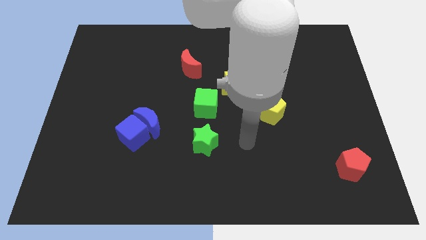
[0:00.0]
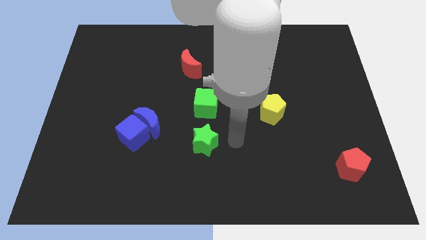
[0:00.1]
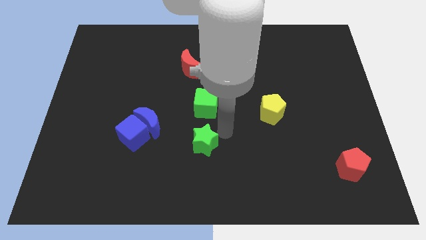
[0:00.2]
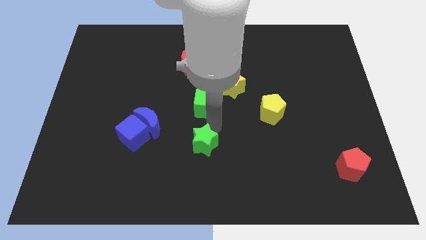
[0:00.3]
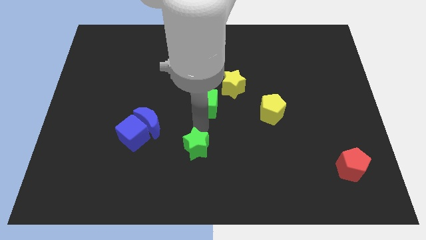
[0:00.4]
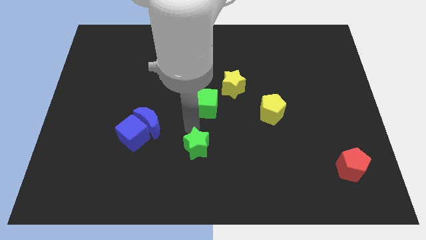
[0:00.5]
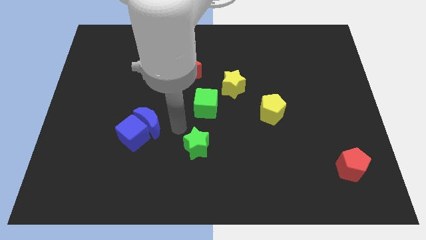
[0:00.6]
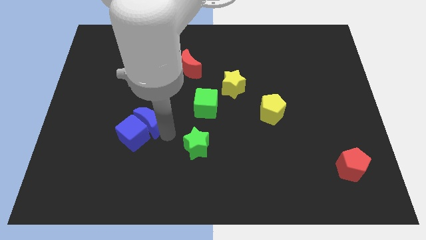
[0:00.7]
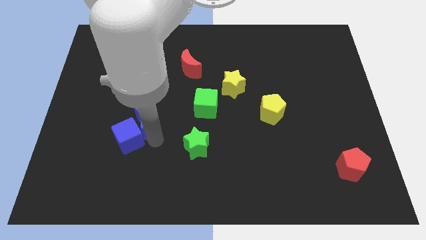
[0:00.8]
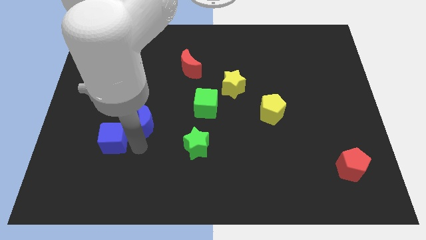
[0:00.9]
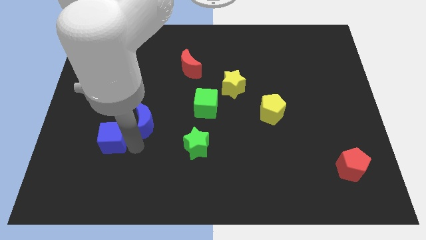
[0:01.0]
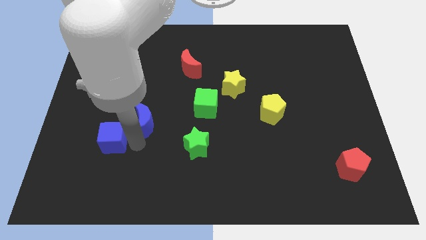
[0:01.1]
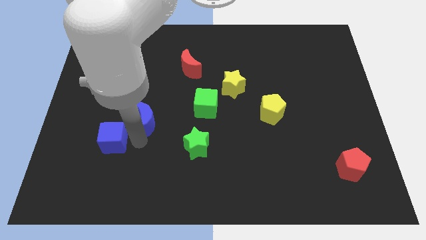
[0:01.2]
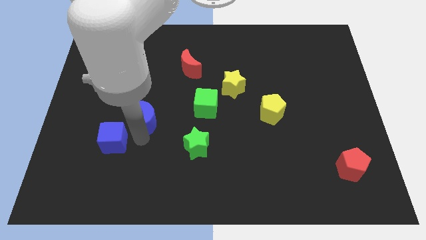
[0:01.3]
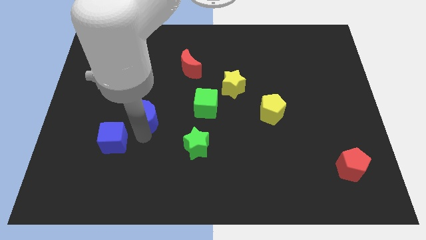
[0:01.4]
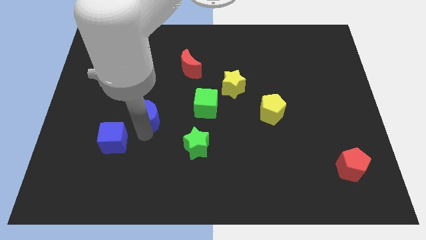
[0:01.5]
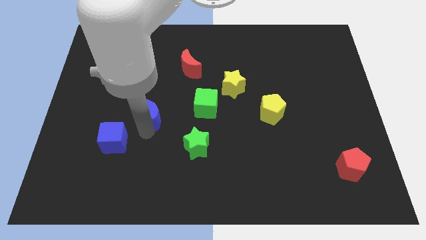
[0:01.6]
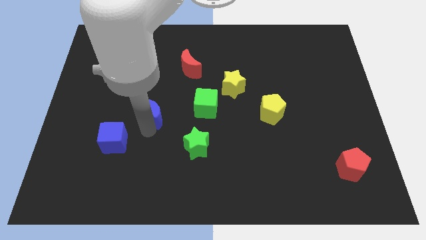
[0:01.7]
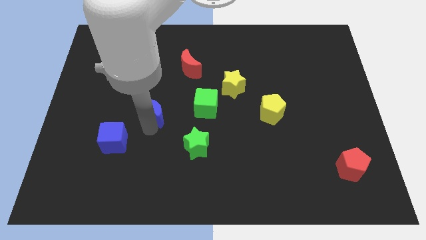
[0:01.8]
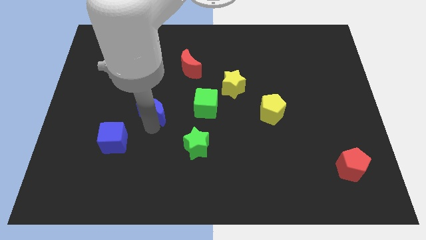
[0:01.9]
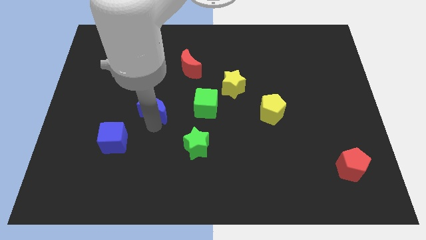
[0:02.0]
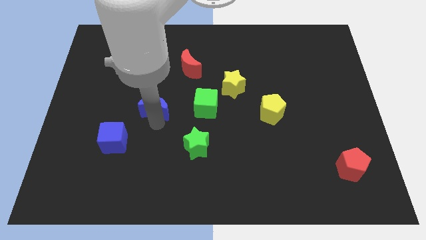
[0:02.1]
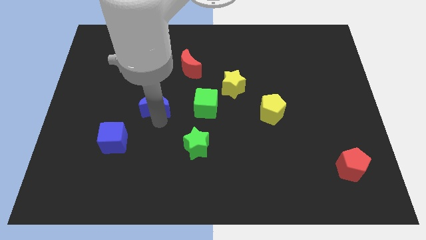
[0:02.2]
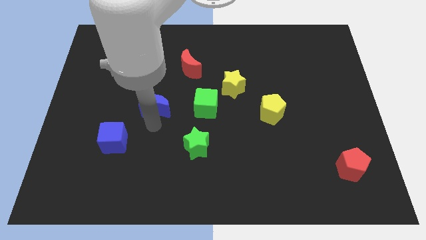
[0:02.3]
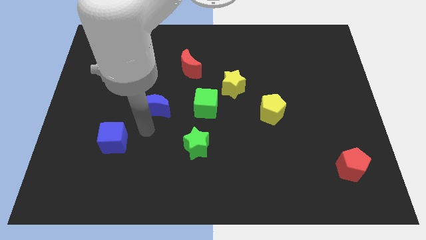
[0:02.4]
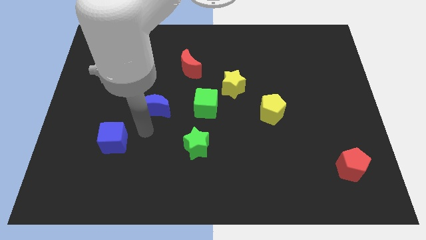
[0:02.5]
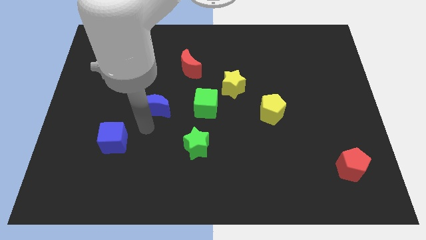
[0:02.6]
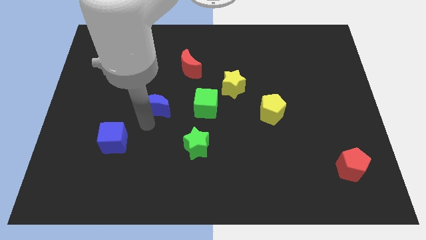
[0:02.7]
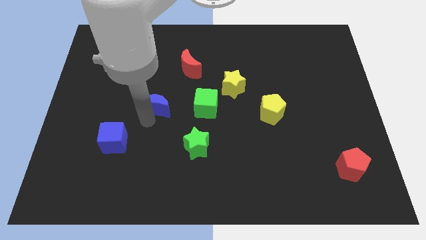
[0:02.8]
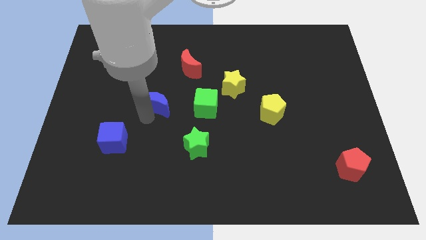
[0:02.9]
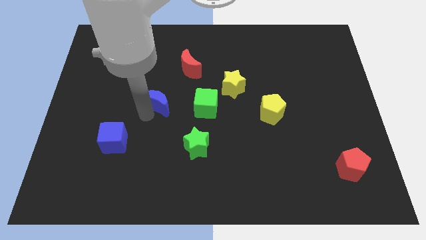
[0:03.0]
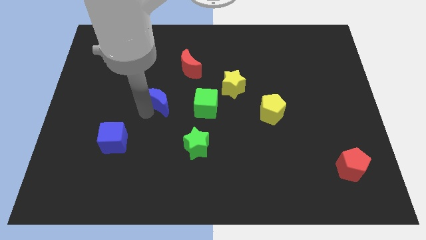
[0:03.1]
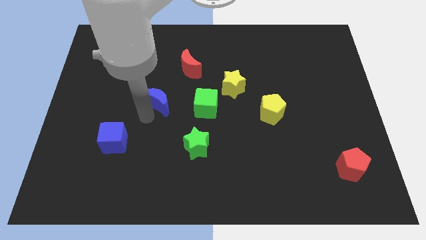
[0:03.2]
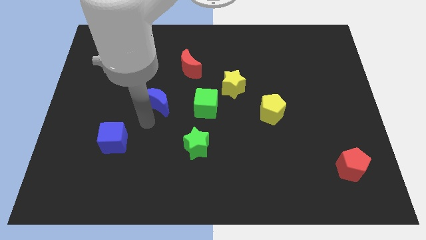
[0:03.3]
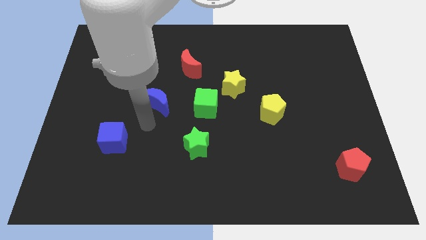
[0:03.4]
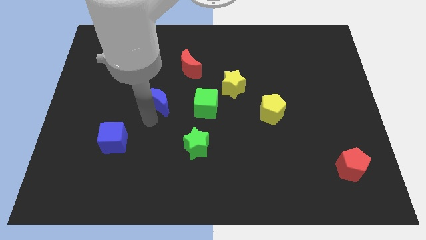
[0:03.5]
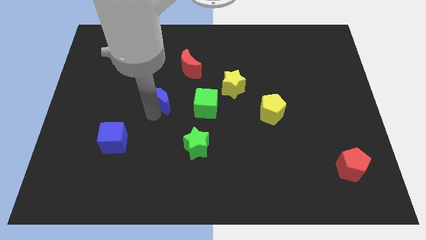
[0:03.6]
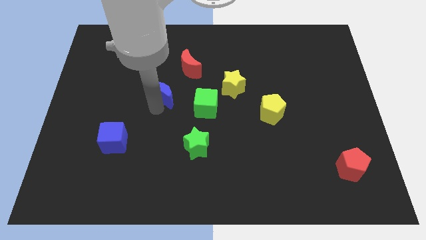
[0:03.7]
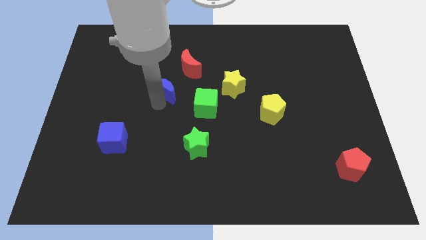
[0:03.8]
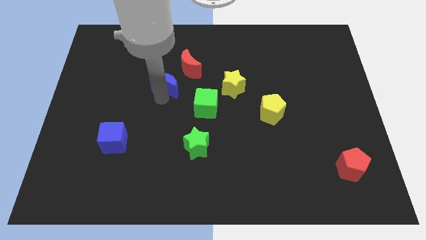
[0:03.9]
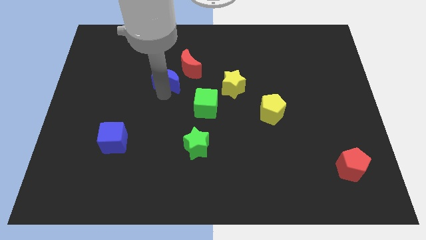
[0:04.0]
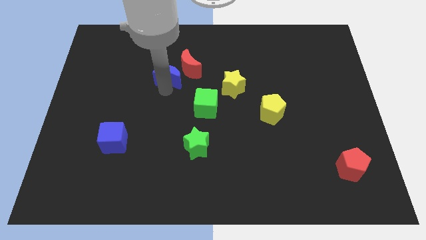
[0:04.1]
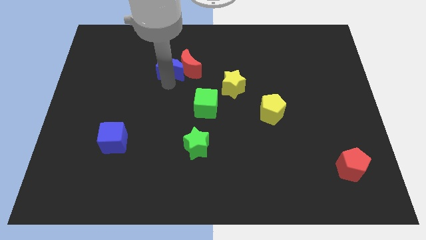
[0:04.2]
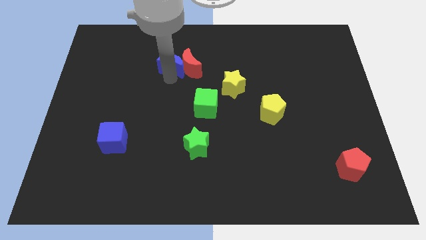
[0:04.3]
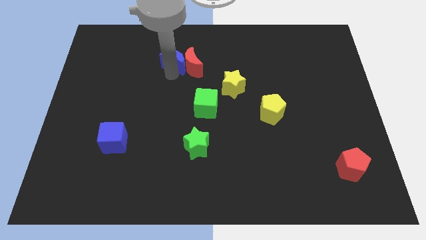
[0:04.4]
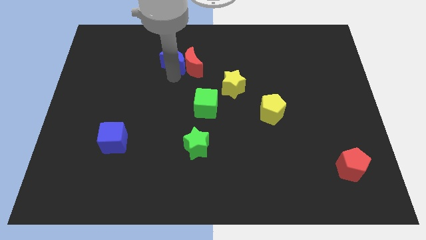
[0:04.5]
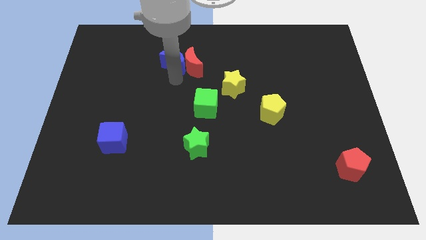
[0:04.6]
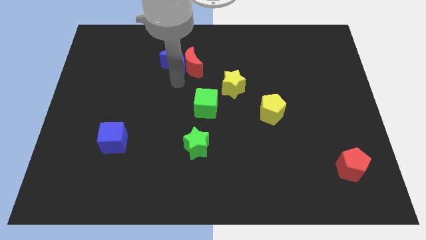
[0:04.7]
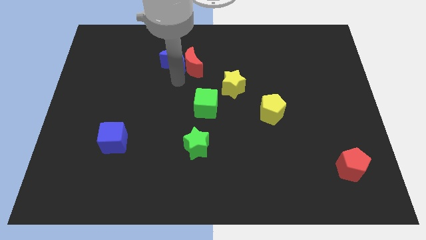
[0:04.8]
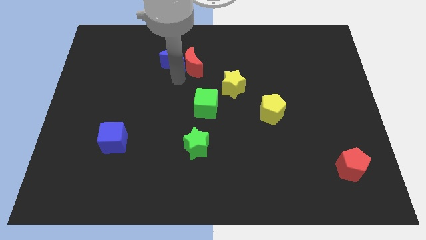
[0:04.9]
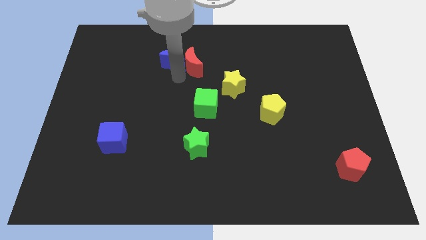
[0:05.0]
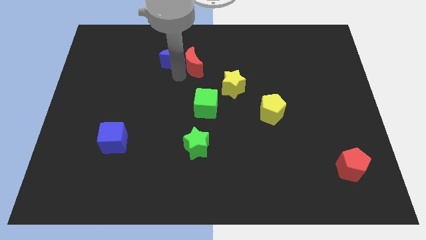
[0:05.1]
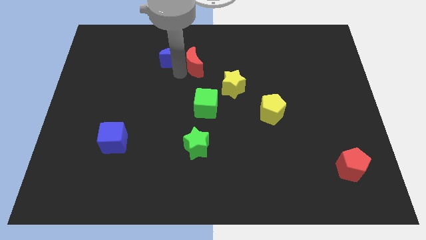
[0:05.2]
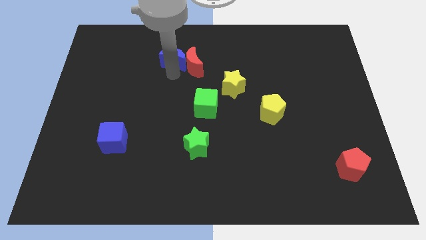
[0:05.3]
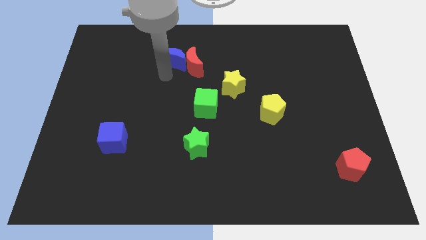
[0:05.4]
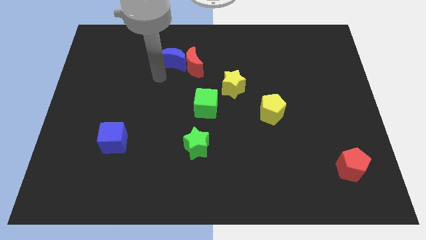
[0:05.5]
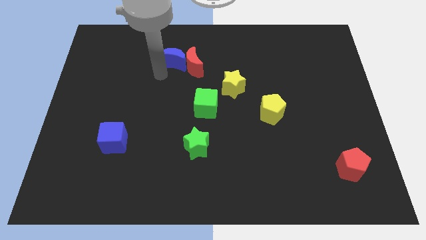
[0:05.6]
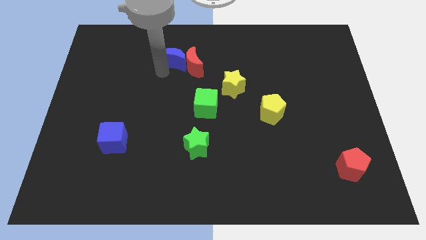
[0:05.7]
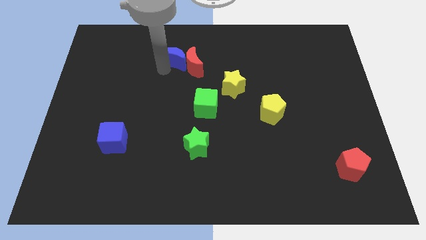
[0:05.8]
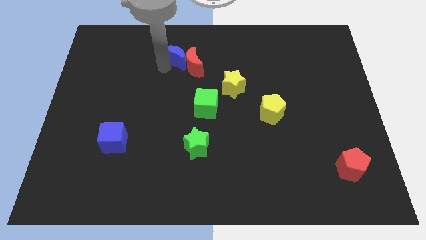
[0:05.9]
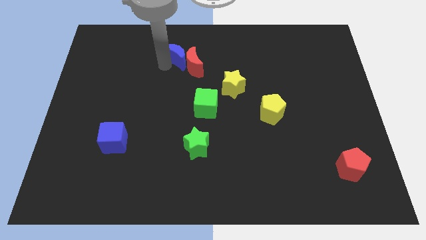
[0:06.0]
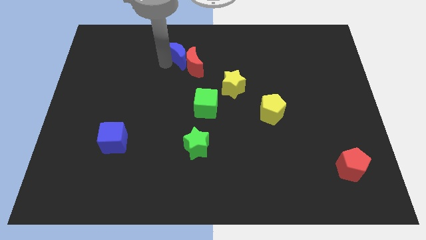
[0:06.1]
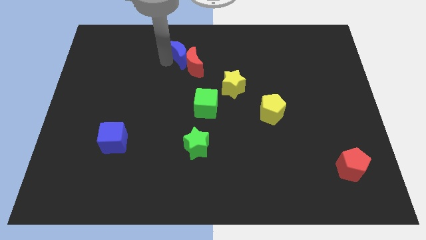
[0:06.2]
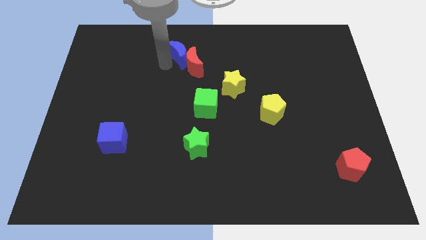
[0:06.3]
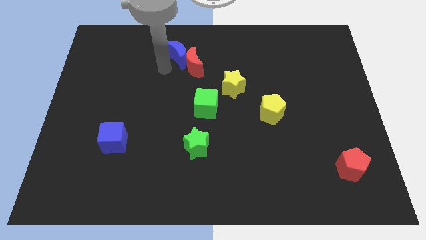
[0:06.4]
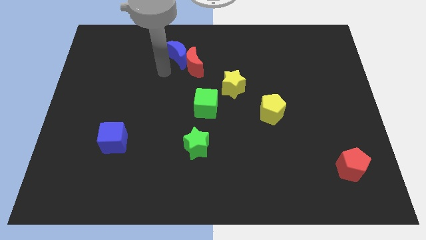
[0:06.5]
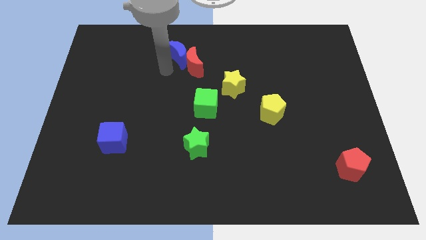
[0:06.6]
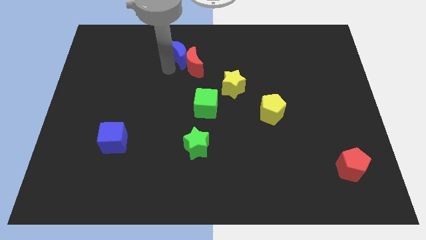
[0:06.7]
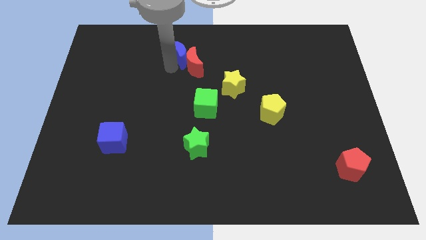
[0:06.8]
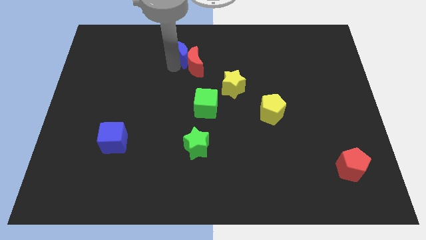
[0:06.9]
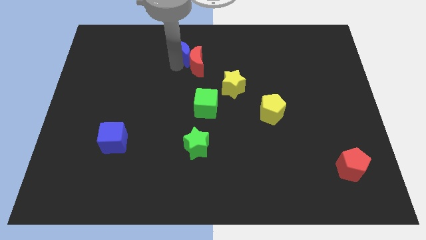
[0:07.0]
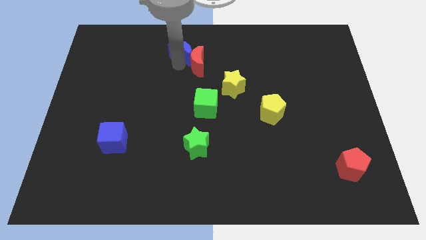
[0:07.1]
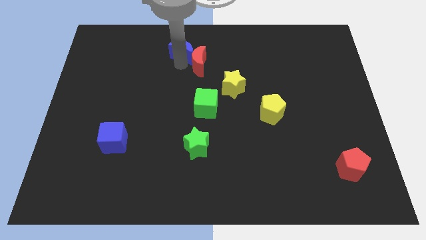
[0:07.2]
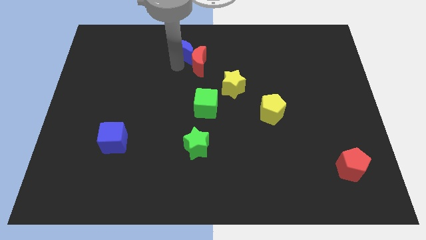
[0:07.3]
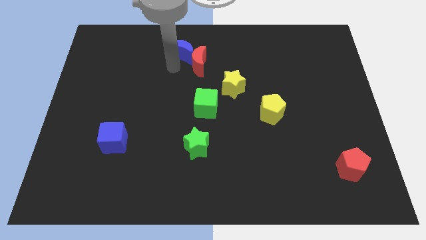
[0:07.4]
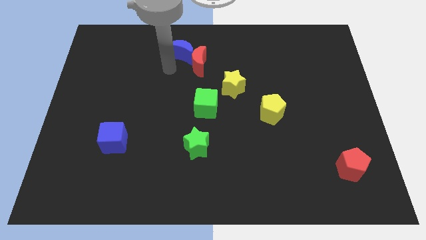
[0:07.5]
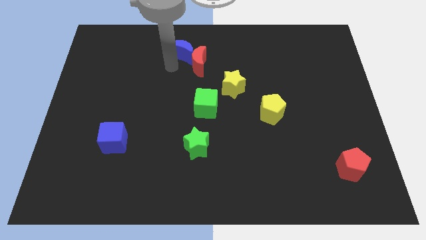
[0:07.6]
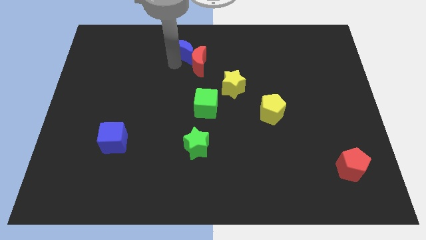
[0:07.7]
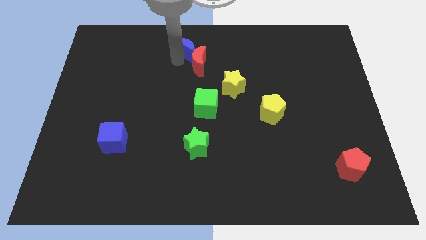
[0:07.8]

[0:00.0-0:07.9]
push the blue moon to the towards your base
